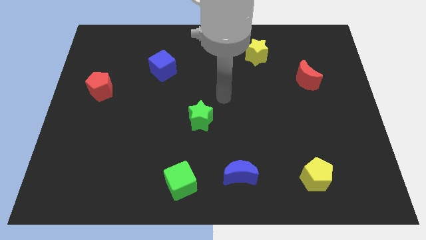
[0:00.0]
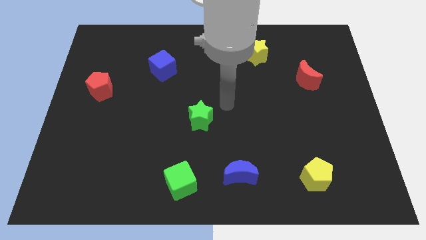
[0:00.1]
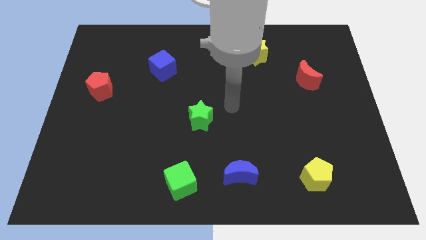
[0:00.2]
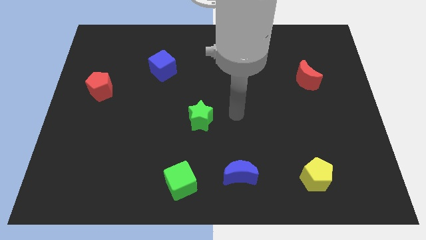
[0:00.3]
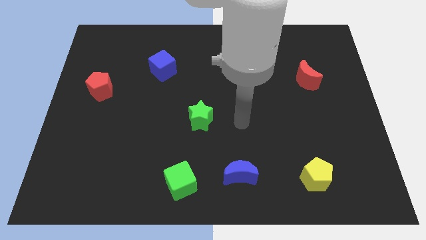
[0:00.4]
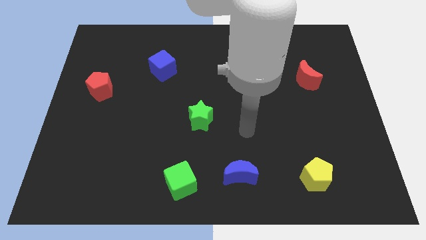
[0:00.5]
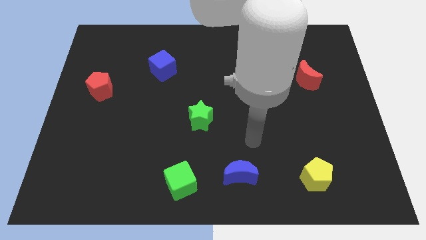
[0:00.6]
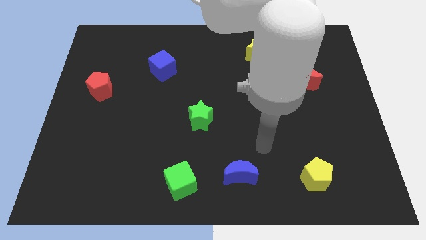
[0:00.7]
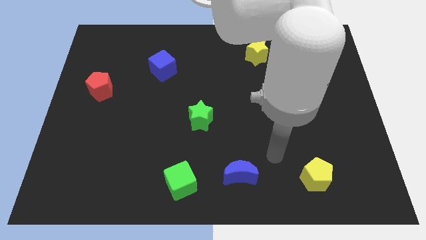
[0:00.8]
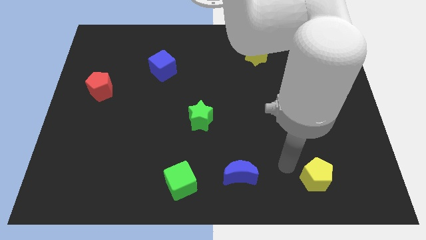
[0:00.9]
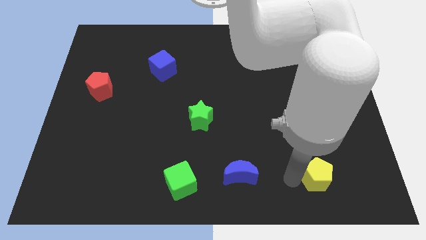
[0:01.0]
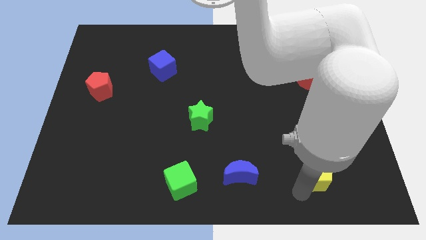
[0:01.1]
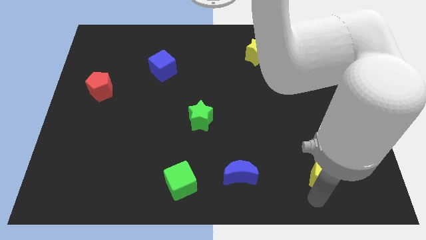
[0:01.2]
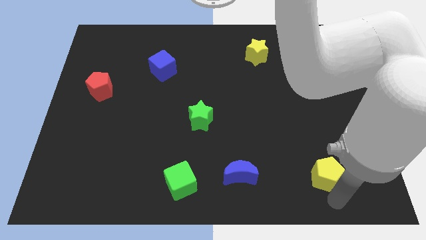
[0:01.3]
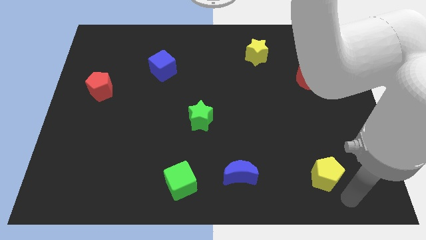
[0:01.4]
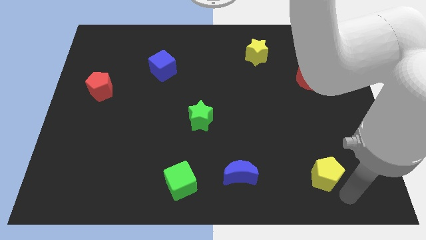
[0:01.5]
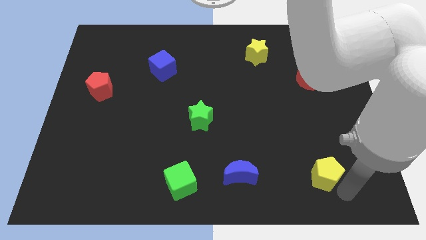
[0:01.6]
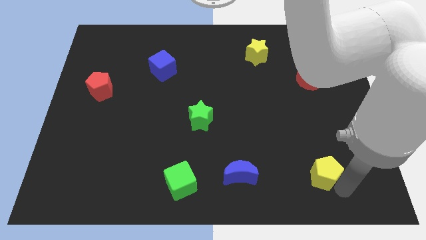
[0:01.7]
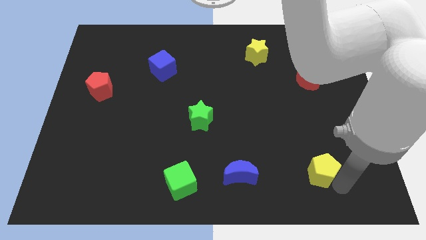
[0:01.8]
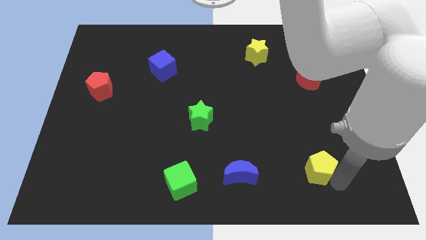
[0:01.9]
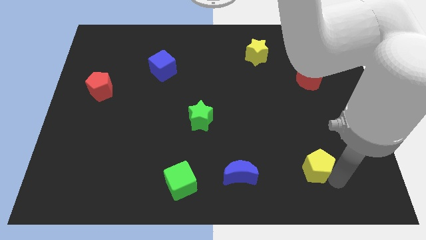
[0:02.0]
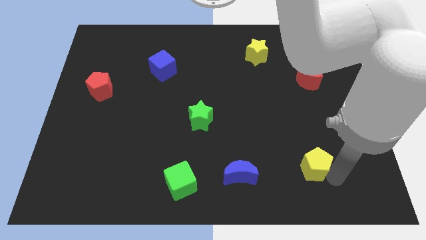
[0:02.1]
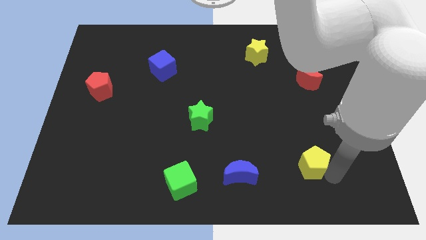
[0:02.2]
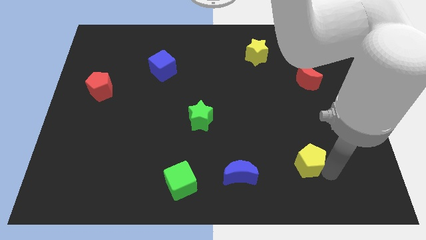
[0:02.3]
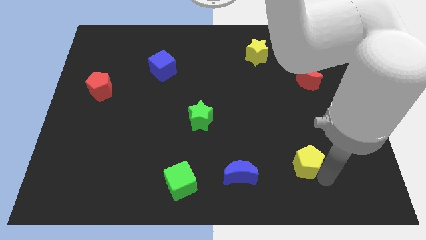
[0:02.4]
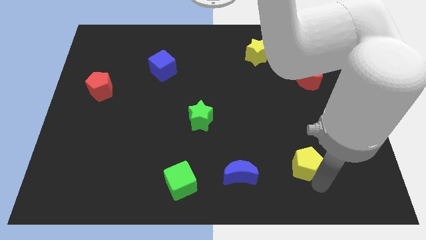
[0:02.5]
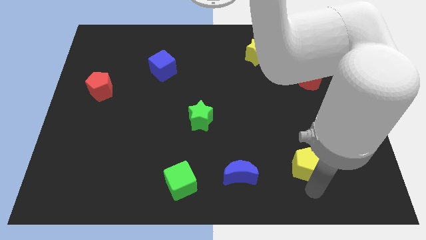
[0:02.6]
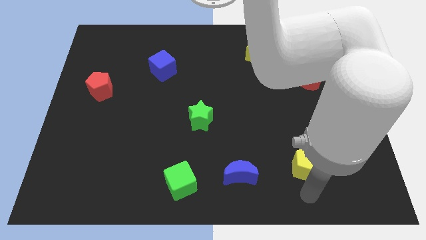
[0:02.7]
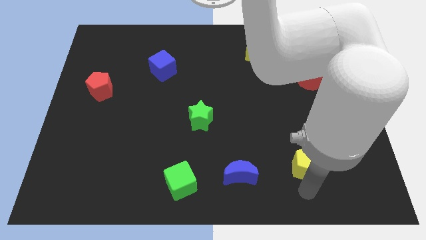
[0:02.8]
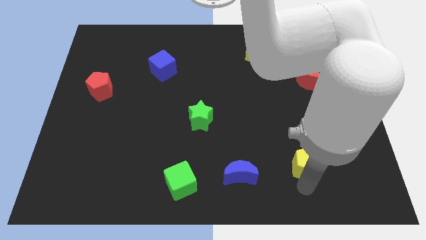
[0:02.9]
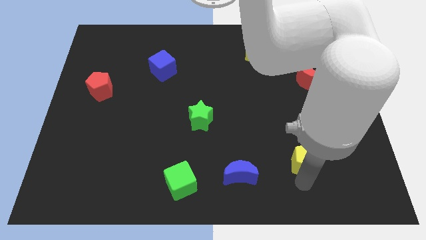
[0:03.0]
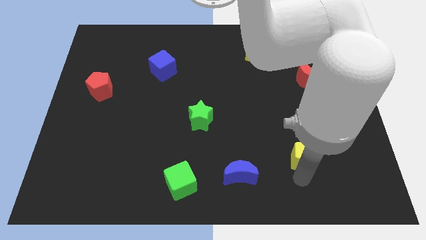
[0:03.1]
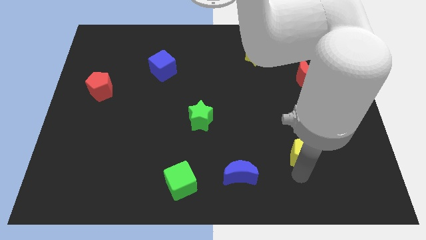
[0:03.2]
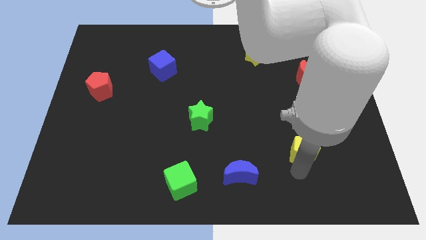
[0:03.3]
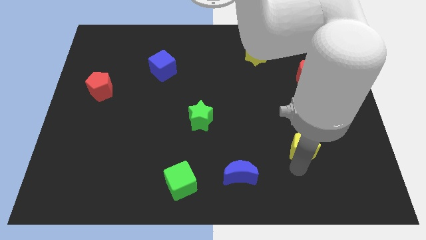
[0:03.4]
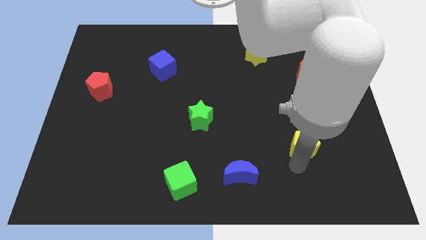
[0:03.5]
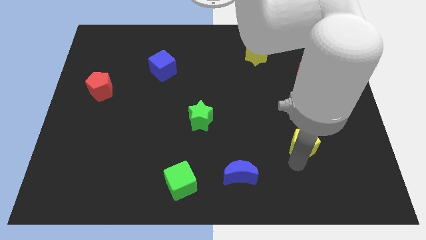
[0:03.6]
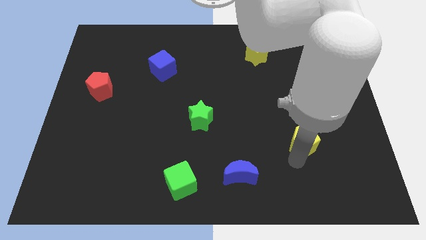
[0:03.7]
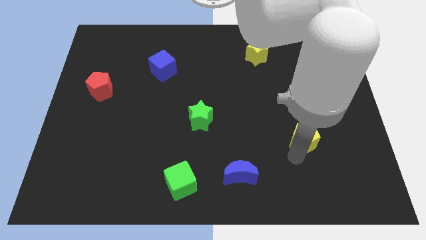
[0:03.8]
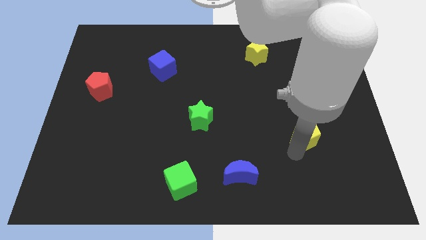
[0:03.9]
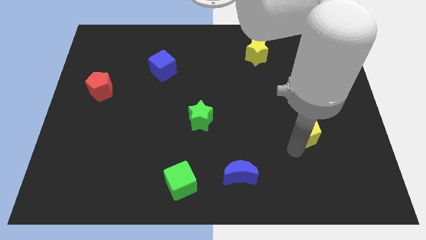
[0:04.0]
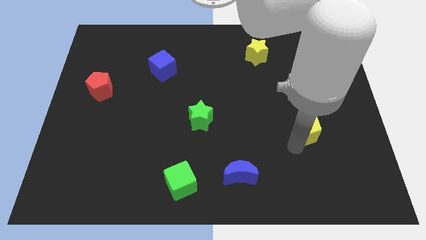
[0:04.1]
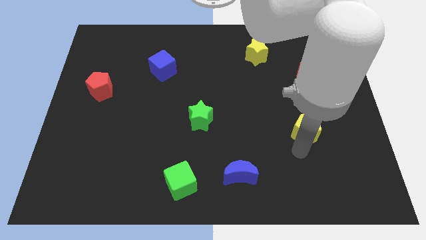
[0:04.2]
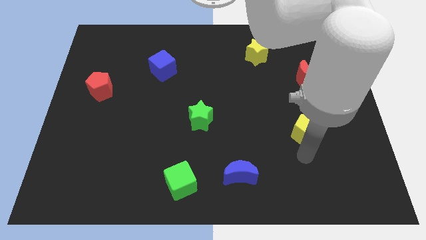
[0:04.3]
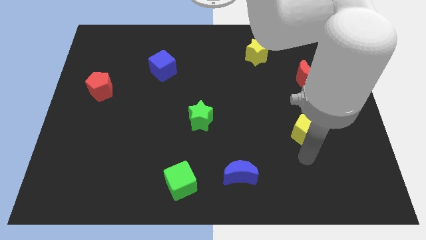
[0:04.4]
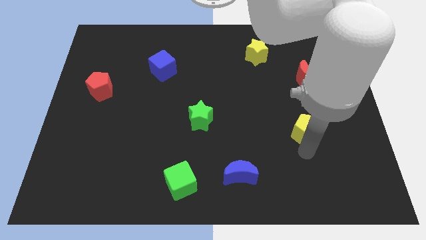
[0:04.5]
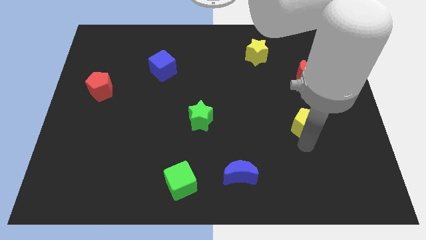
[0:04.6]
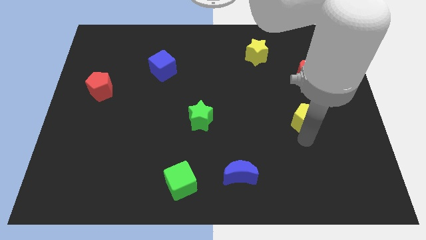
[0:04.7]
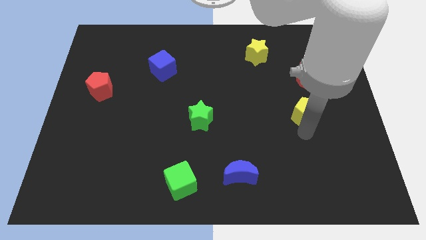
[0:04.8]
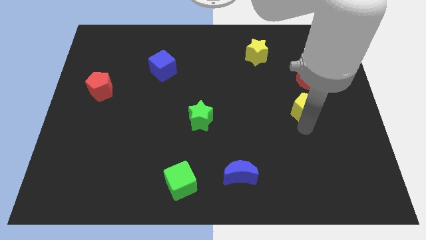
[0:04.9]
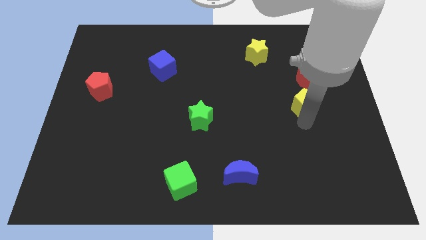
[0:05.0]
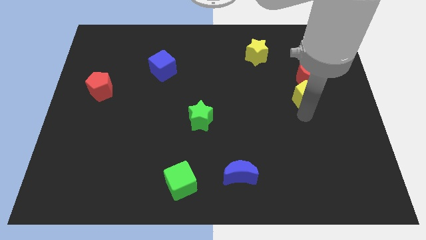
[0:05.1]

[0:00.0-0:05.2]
put the yellow pentagon towards the red moon

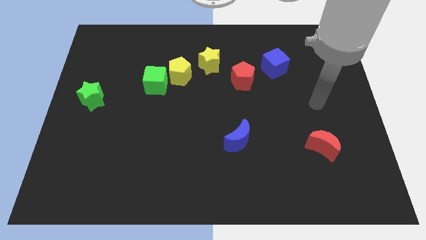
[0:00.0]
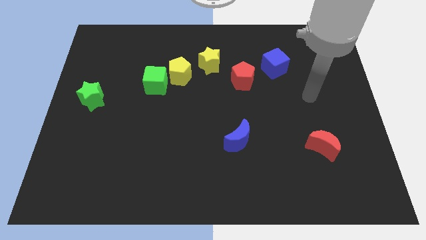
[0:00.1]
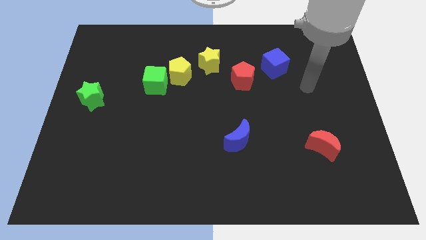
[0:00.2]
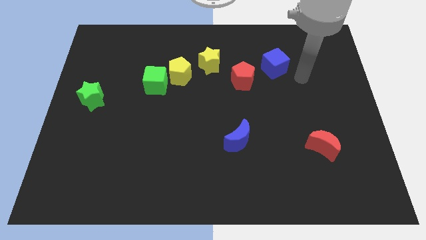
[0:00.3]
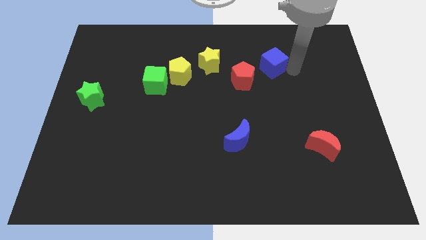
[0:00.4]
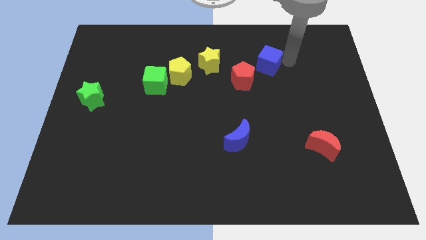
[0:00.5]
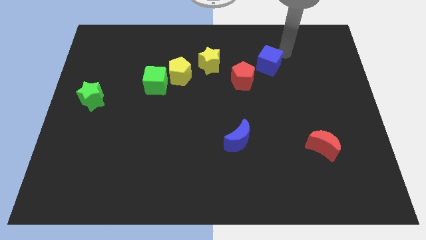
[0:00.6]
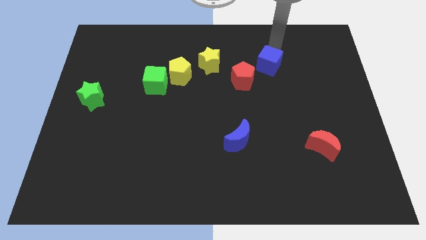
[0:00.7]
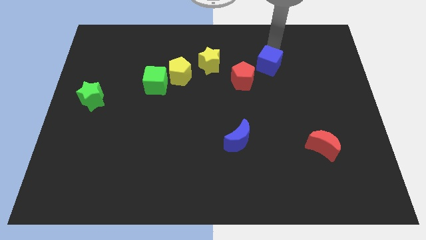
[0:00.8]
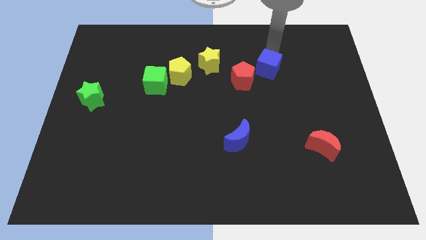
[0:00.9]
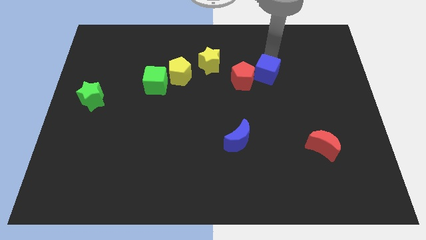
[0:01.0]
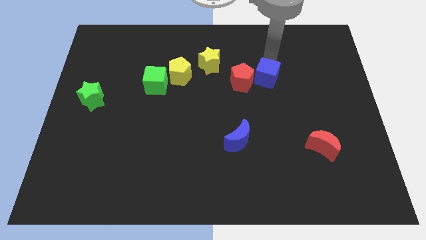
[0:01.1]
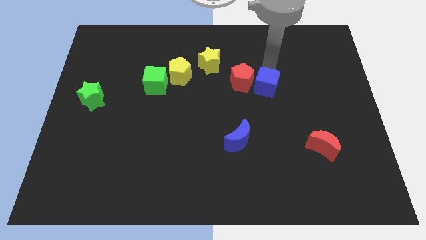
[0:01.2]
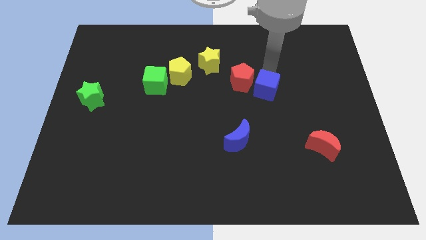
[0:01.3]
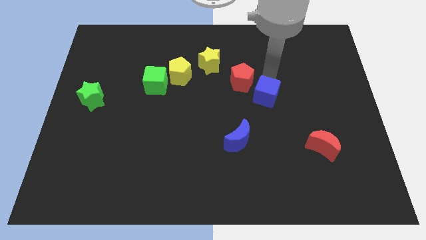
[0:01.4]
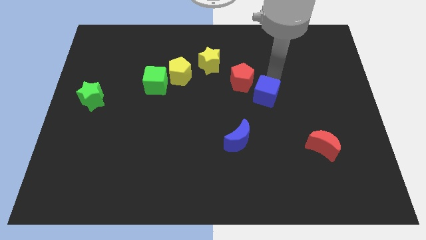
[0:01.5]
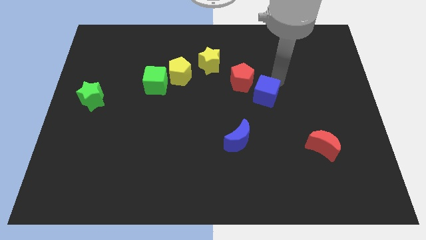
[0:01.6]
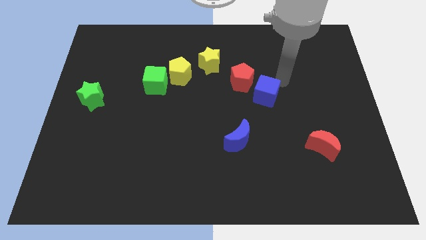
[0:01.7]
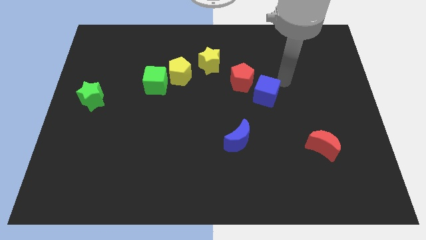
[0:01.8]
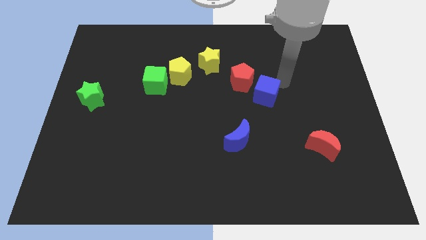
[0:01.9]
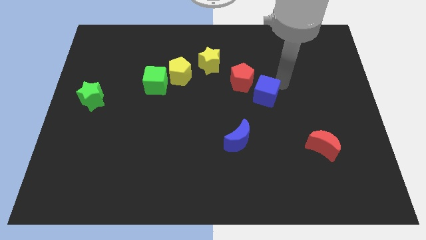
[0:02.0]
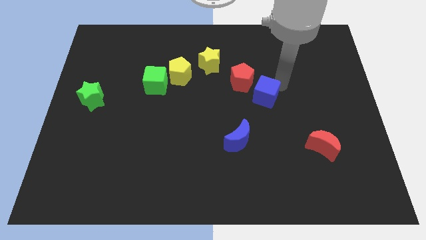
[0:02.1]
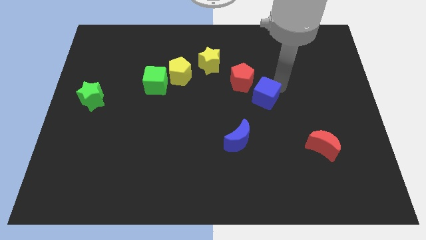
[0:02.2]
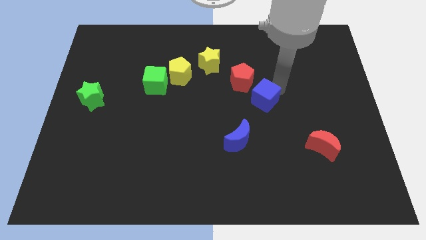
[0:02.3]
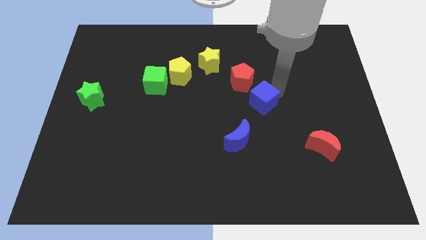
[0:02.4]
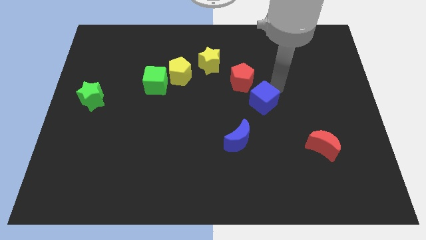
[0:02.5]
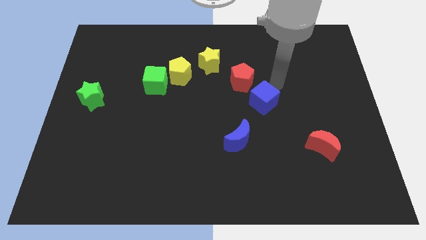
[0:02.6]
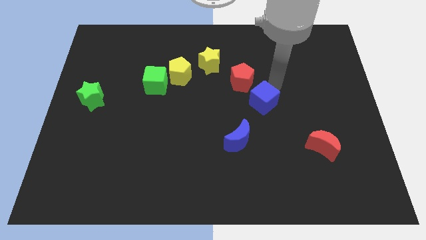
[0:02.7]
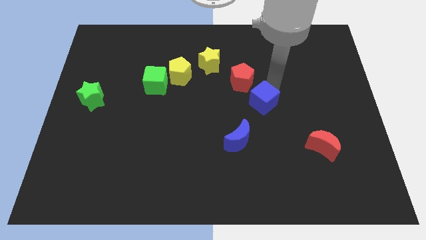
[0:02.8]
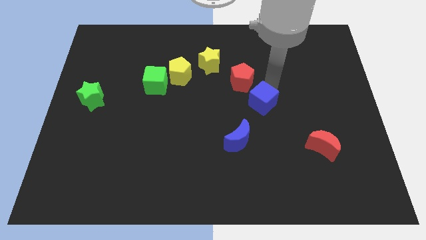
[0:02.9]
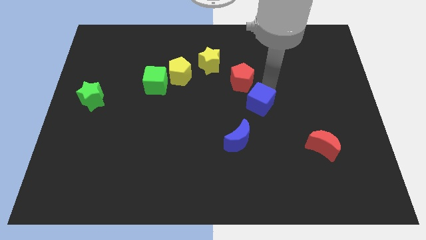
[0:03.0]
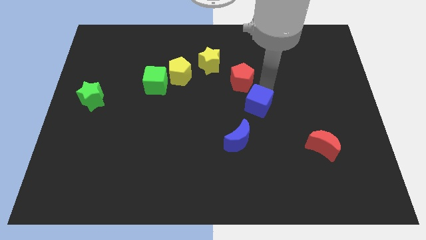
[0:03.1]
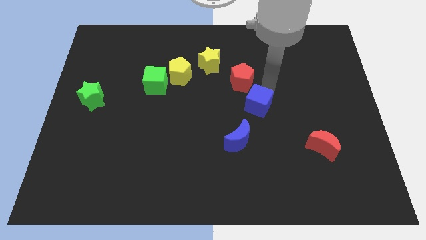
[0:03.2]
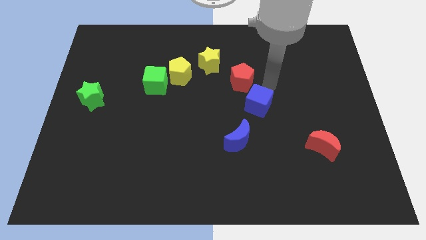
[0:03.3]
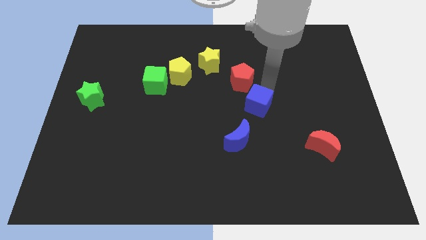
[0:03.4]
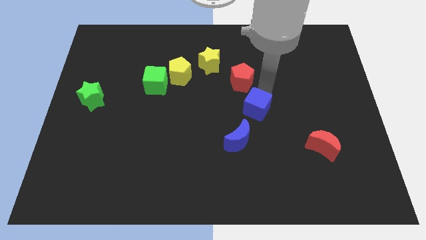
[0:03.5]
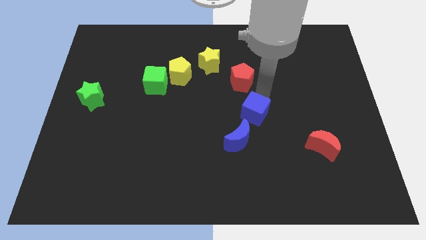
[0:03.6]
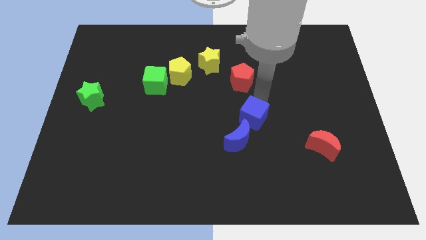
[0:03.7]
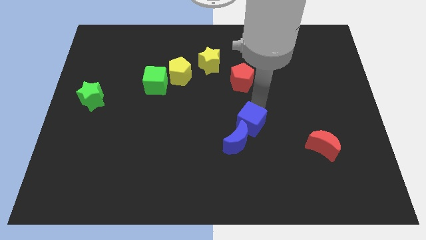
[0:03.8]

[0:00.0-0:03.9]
push the blue cube to the blue moon
